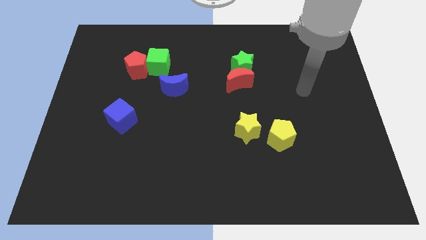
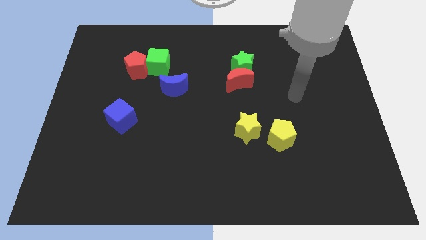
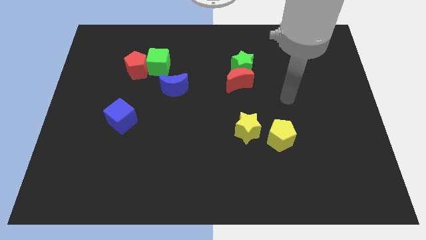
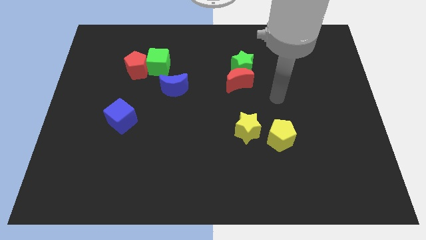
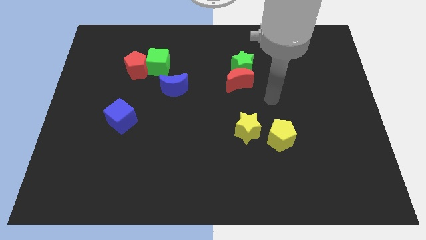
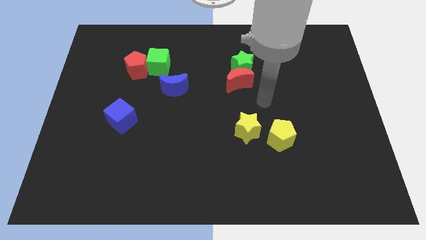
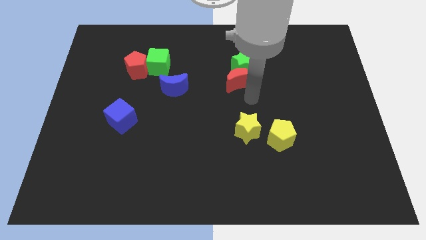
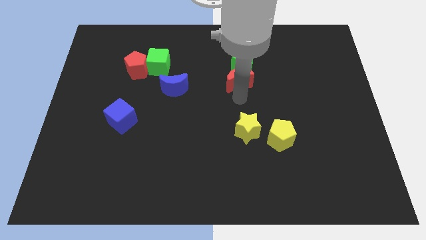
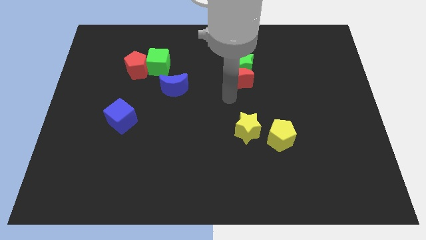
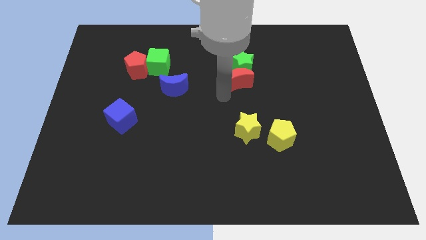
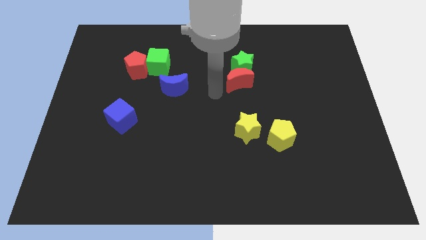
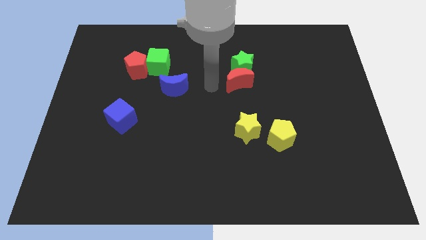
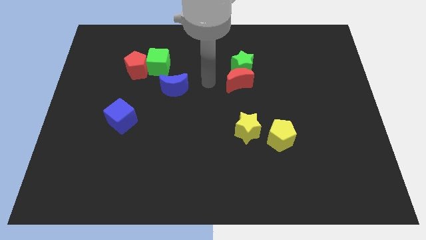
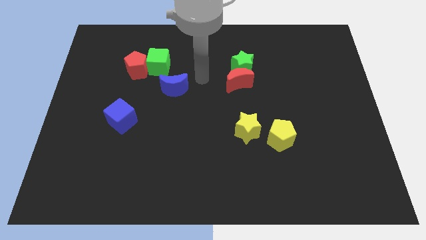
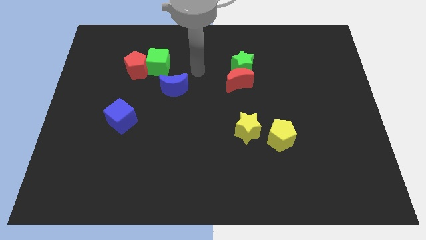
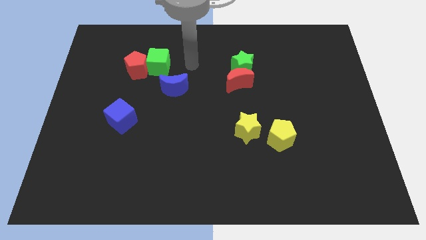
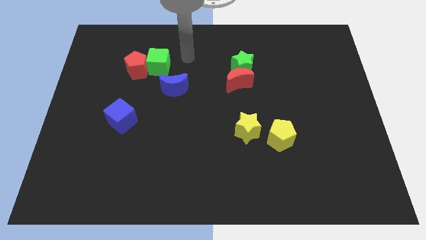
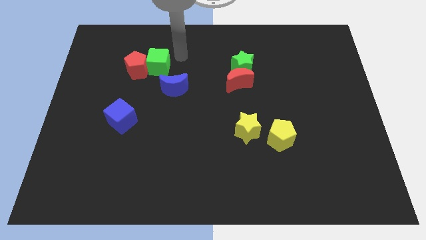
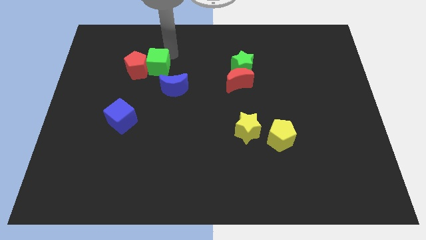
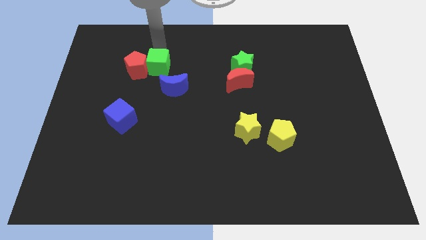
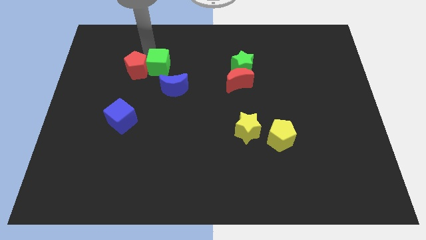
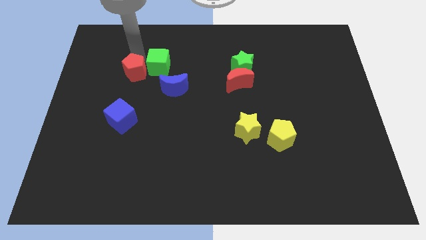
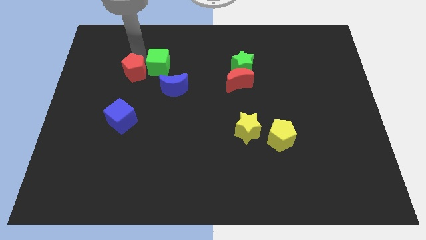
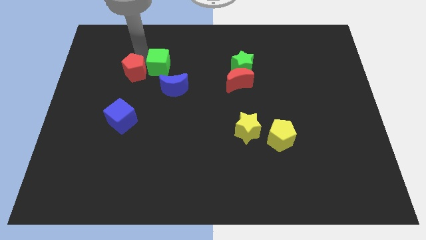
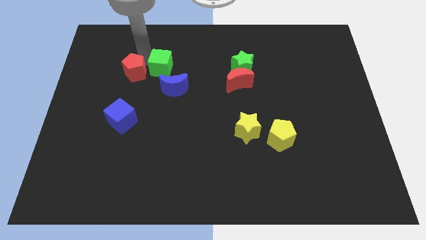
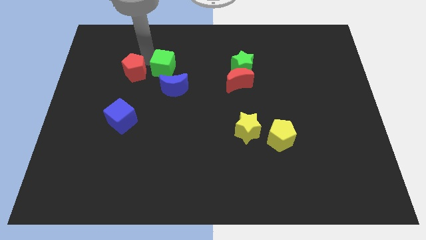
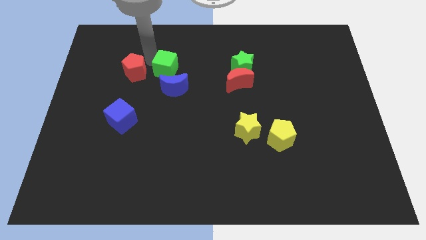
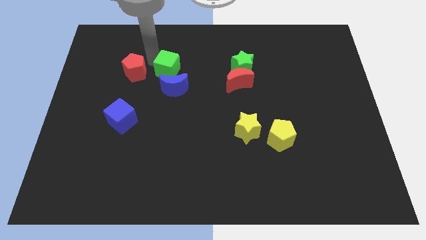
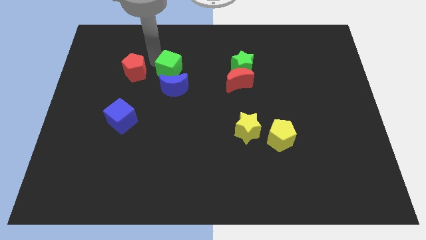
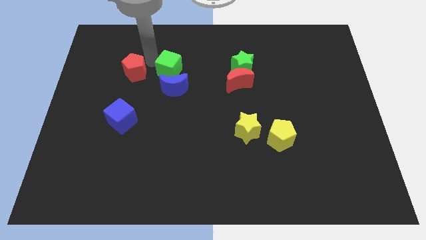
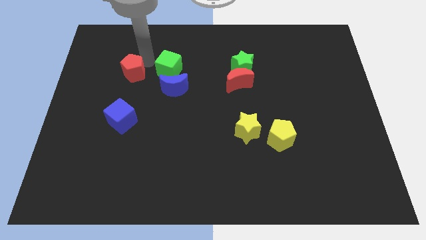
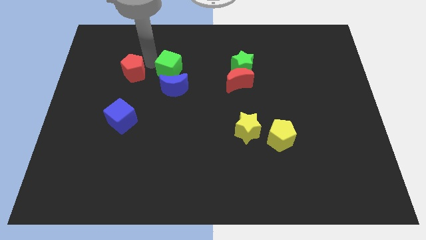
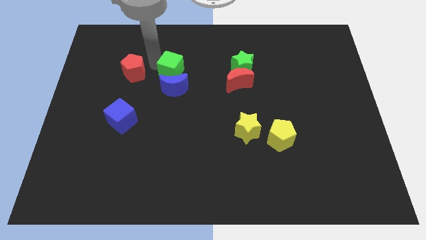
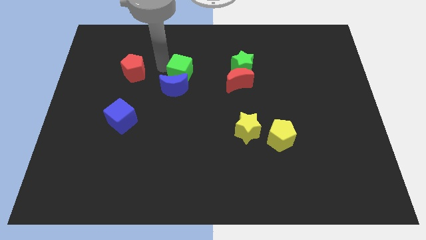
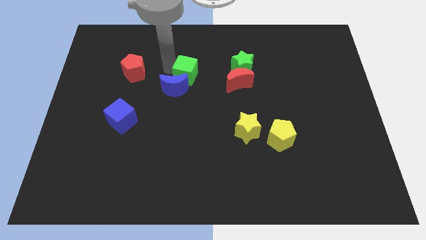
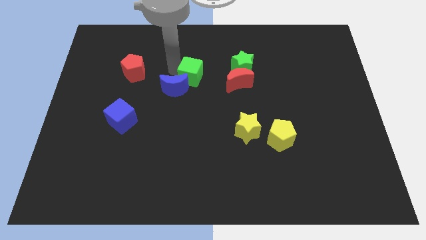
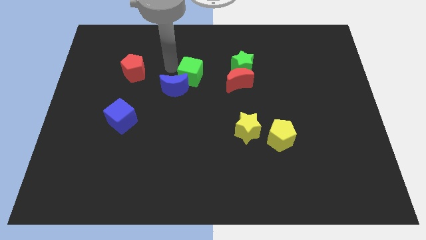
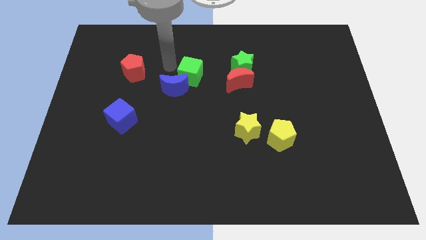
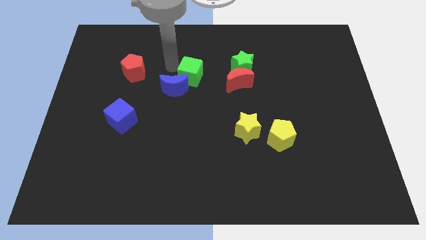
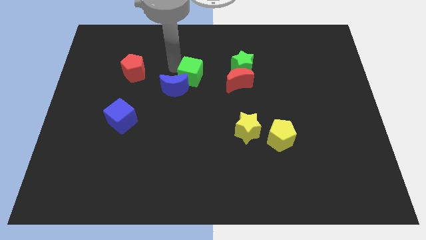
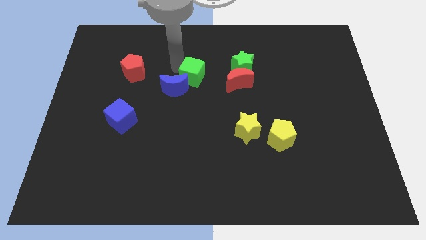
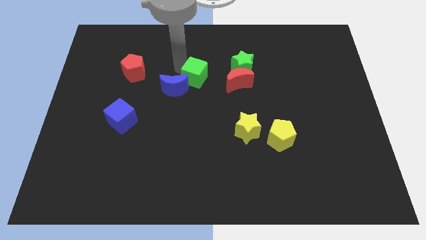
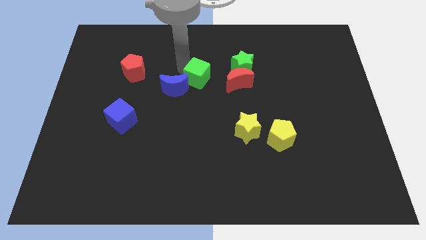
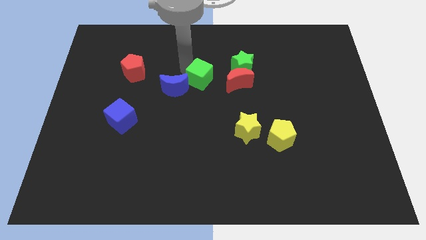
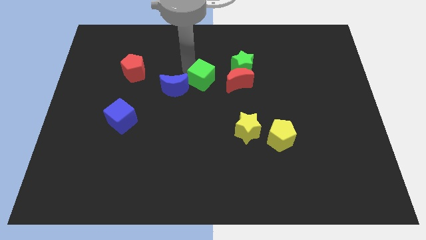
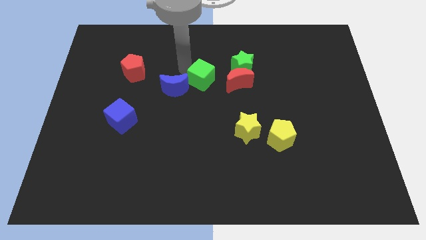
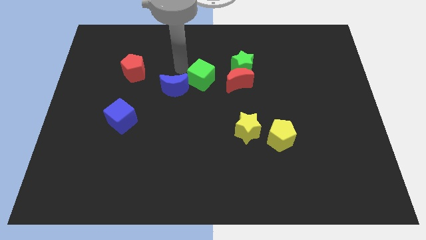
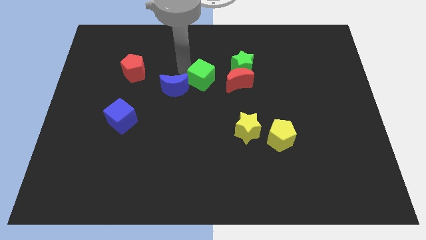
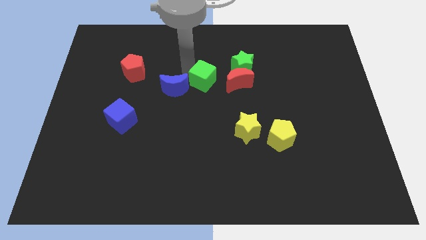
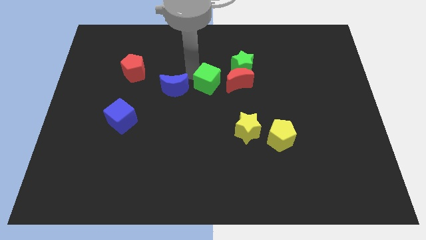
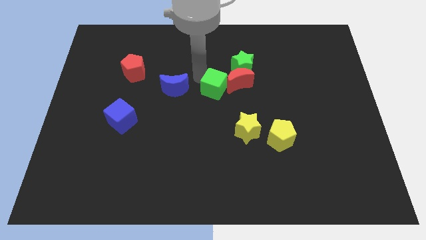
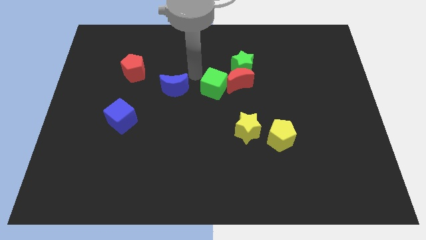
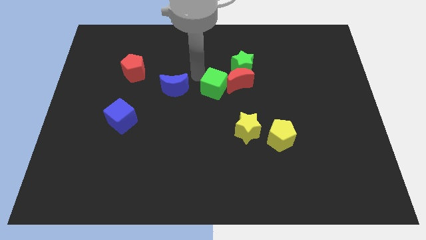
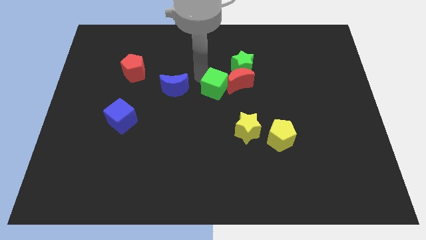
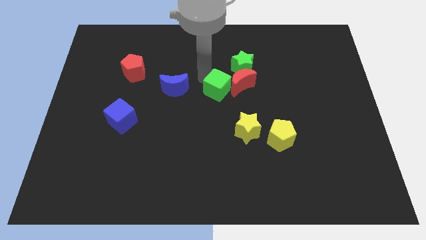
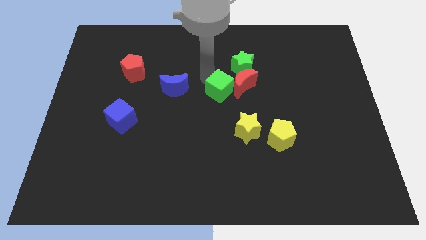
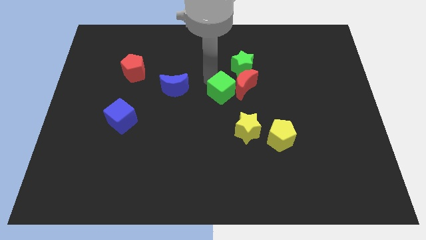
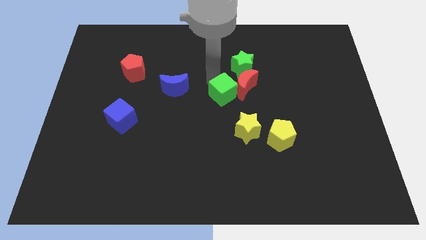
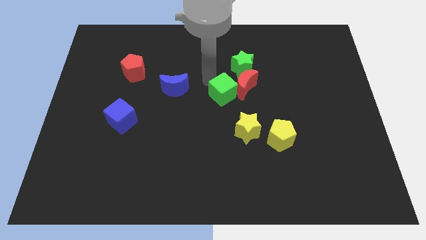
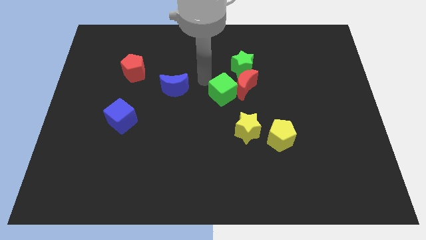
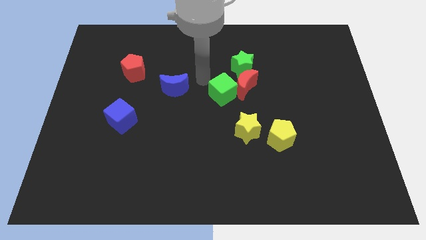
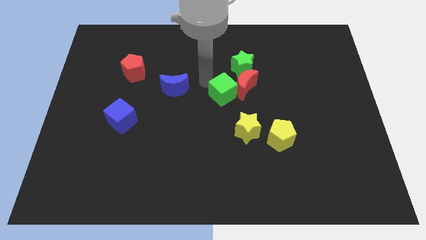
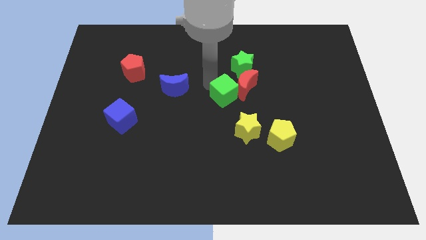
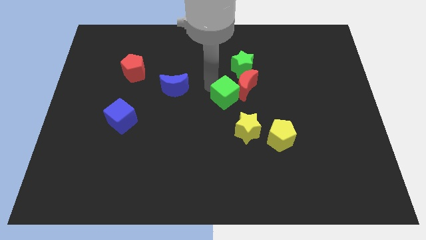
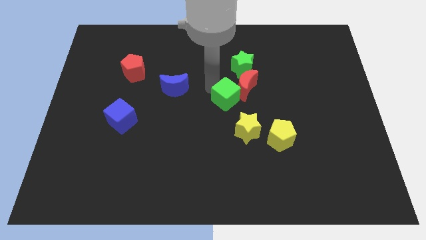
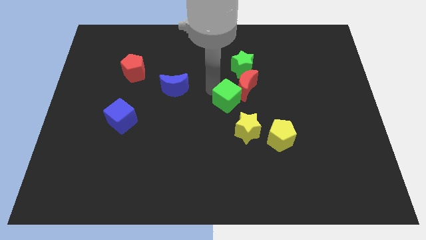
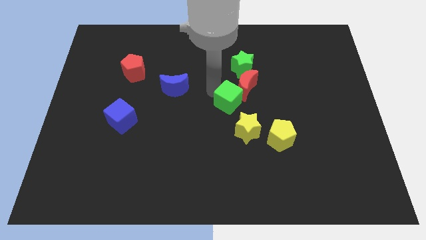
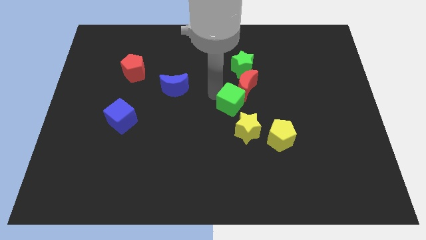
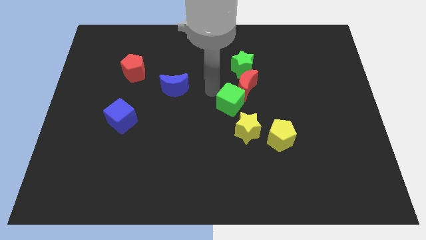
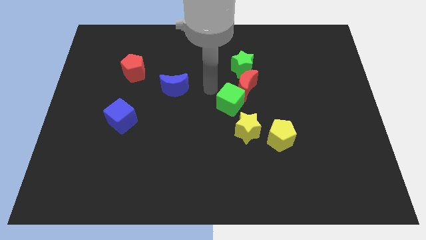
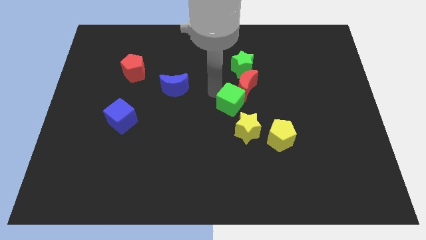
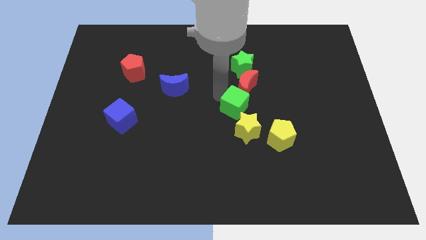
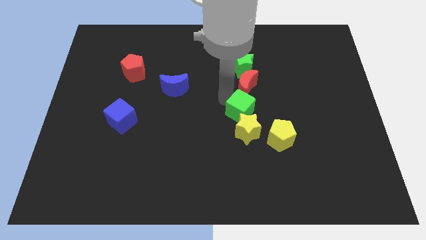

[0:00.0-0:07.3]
slide the green cube to the top left side of the yellow pentagon
